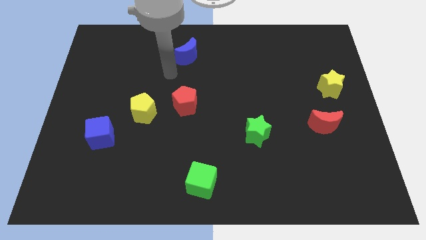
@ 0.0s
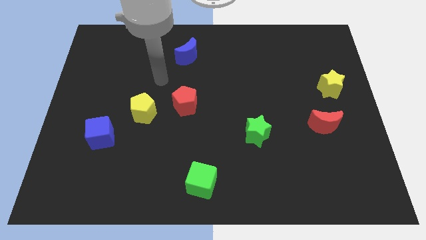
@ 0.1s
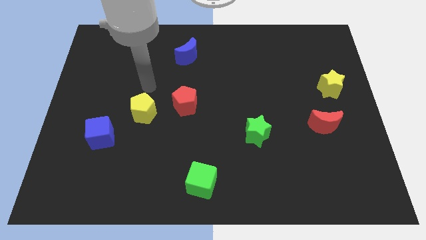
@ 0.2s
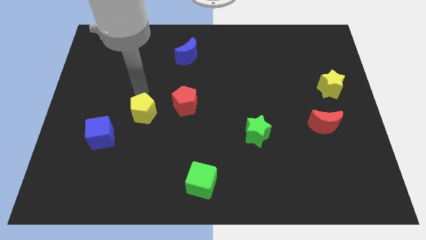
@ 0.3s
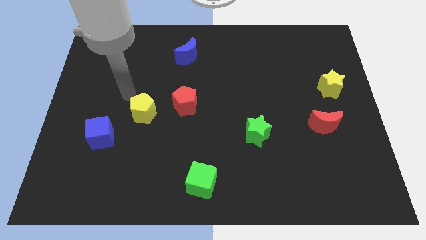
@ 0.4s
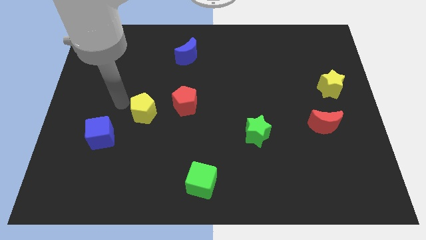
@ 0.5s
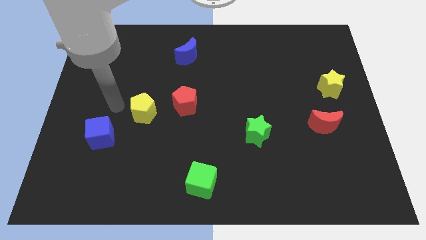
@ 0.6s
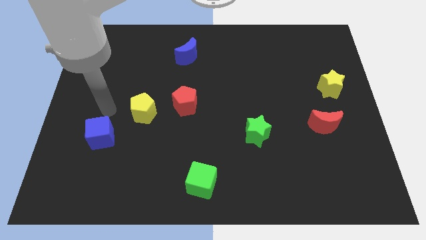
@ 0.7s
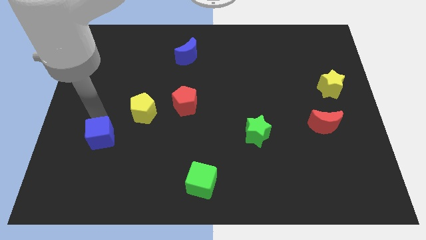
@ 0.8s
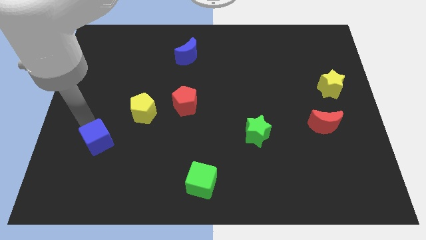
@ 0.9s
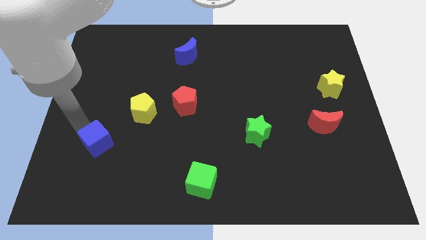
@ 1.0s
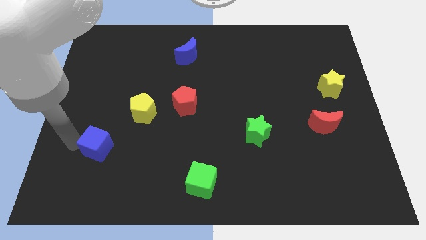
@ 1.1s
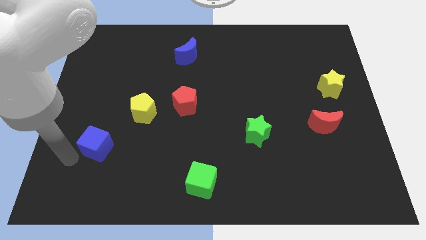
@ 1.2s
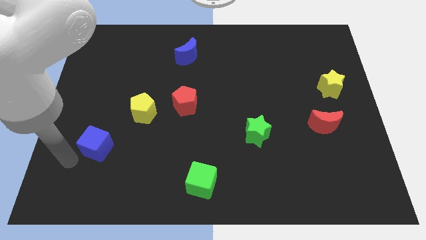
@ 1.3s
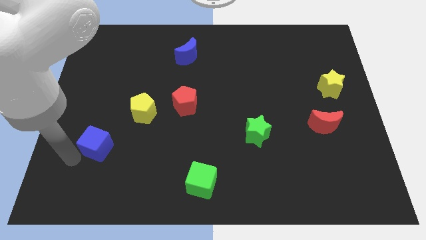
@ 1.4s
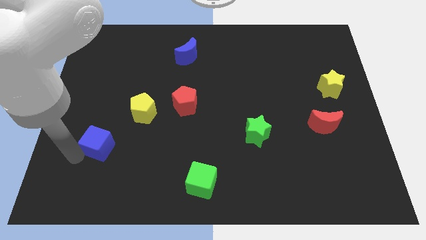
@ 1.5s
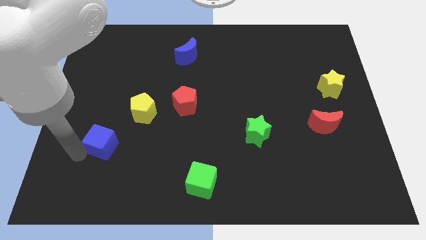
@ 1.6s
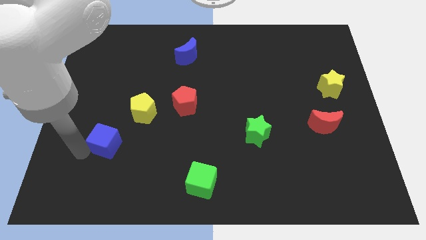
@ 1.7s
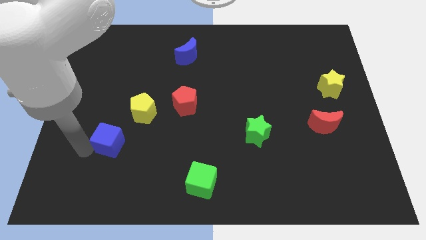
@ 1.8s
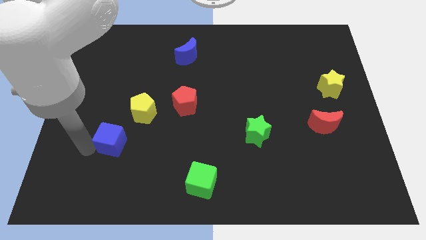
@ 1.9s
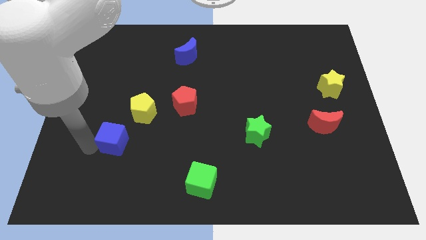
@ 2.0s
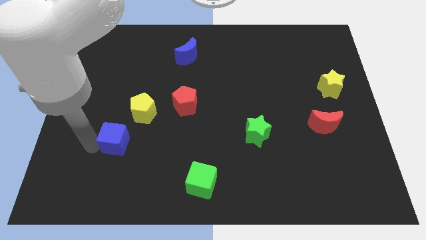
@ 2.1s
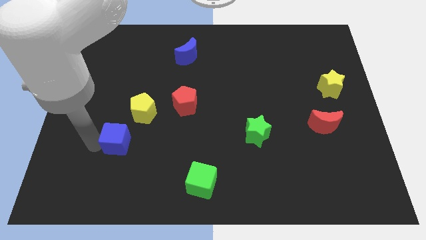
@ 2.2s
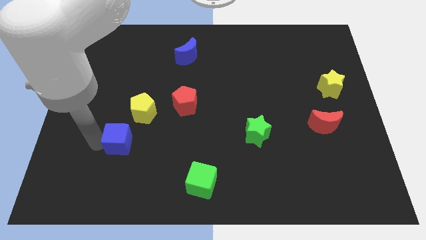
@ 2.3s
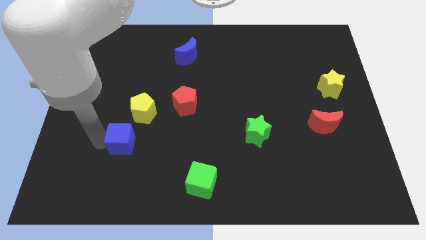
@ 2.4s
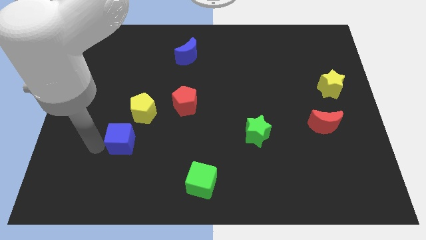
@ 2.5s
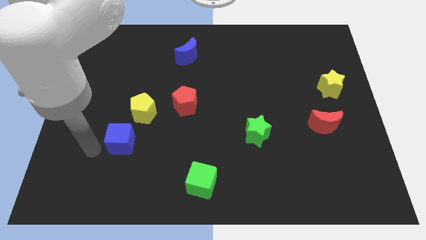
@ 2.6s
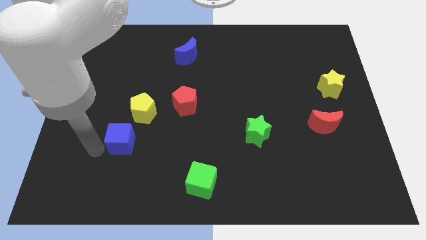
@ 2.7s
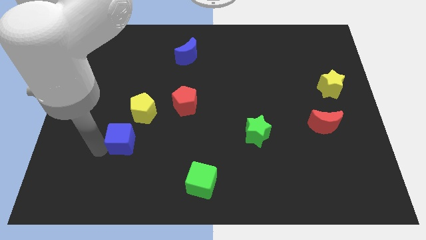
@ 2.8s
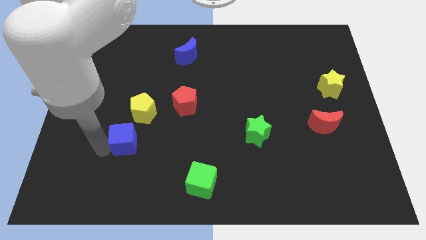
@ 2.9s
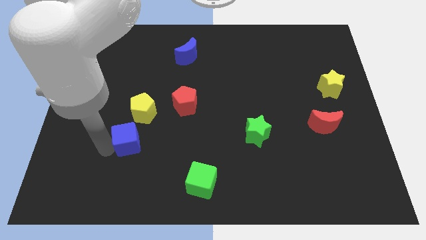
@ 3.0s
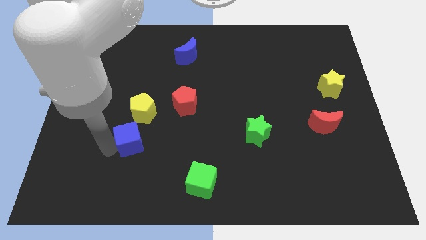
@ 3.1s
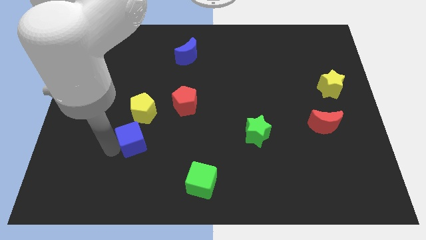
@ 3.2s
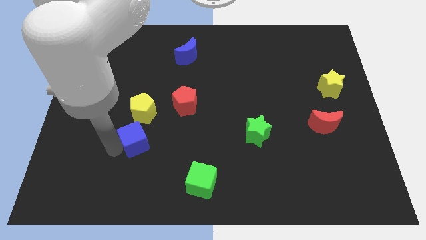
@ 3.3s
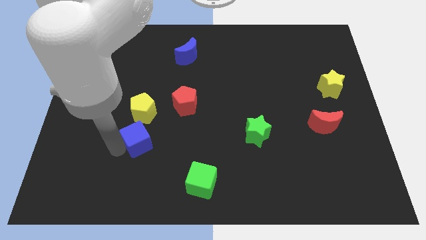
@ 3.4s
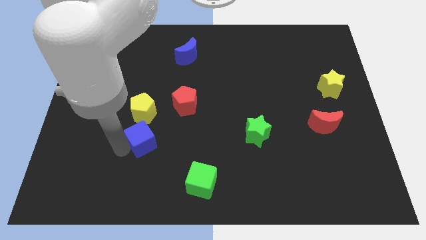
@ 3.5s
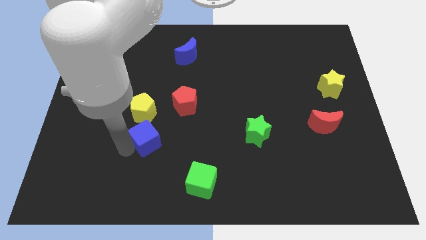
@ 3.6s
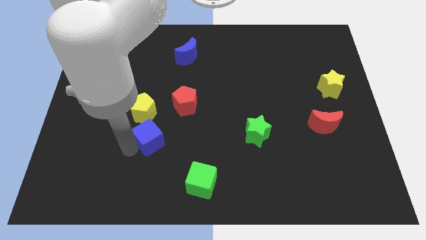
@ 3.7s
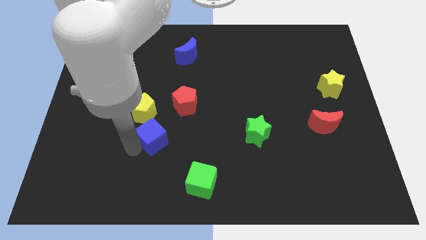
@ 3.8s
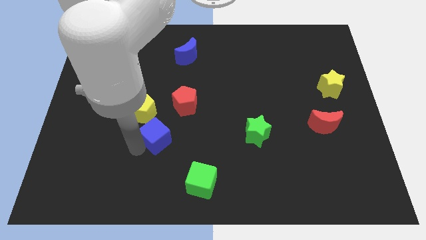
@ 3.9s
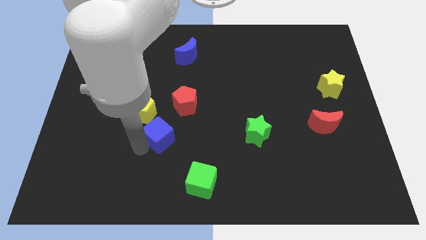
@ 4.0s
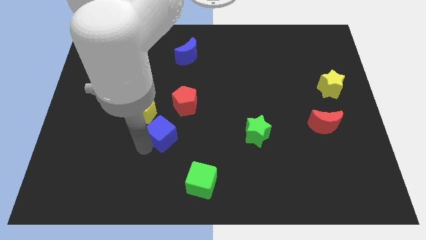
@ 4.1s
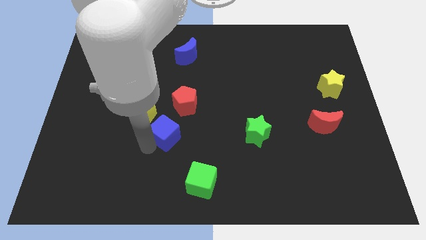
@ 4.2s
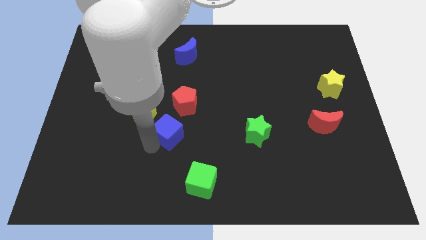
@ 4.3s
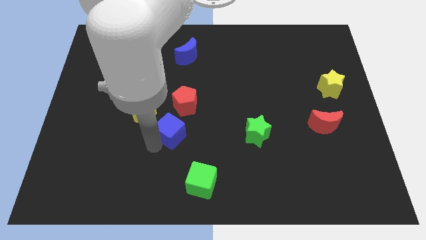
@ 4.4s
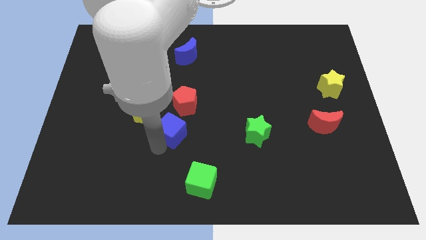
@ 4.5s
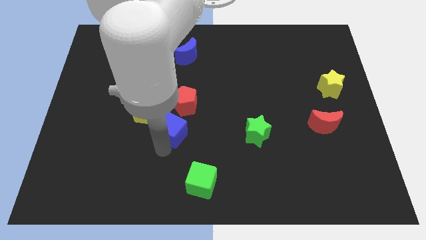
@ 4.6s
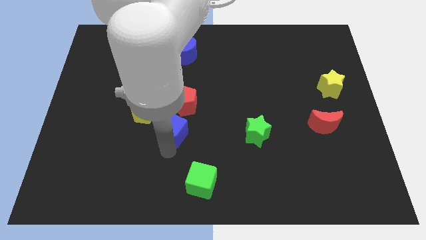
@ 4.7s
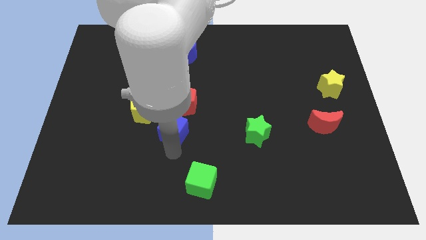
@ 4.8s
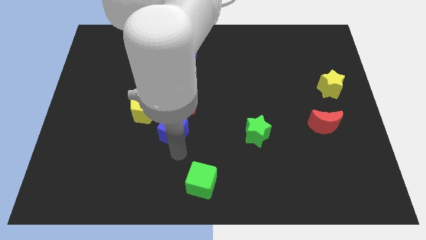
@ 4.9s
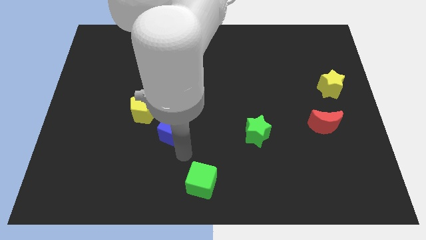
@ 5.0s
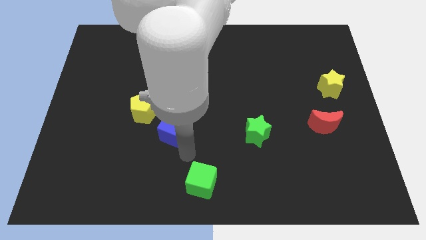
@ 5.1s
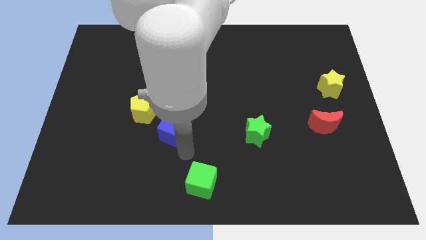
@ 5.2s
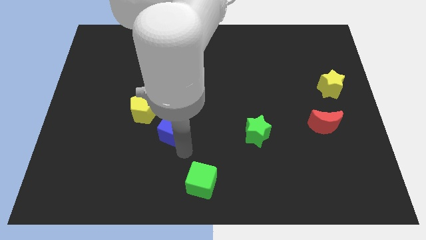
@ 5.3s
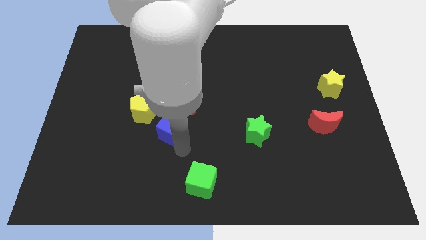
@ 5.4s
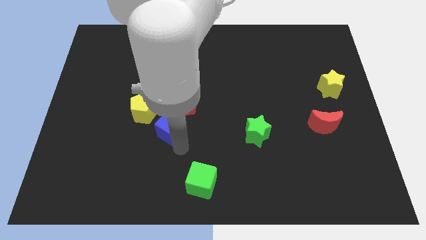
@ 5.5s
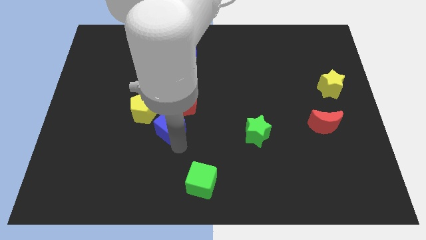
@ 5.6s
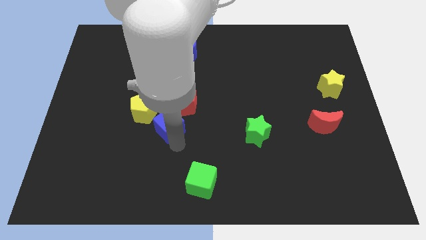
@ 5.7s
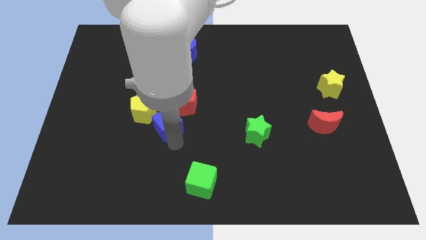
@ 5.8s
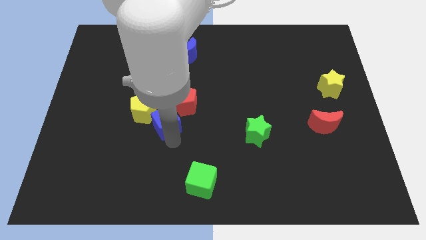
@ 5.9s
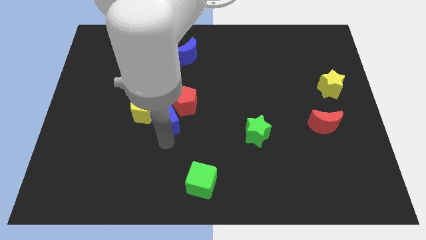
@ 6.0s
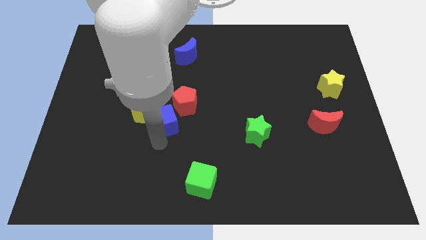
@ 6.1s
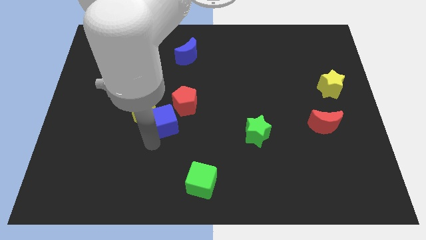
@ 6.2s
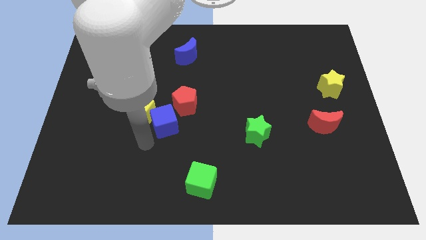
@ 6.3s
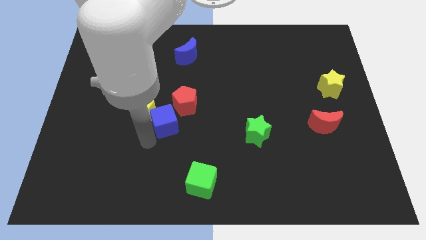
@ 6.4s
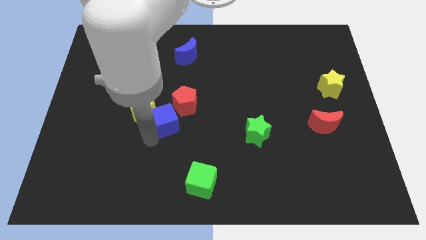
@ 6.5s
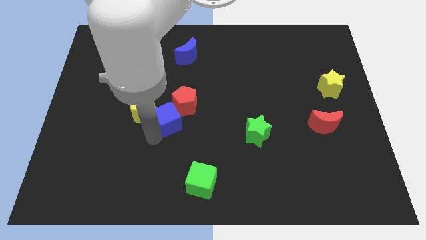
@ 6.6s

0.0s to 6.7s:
slide the blue cube towards the red pentagon
